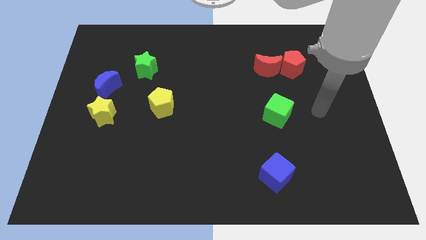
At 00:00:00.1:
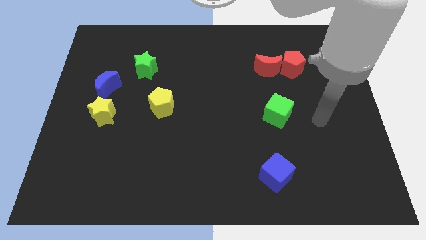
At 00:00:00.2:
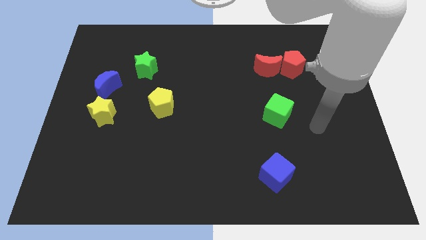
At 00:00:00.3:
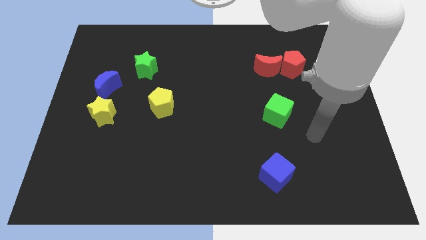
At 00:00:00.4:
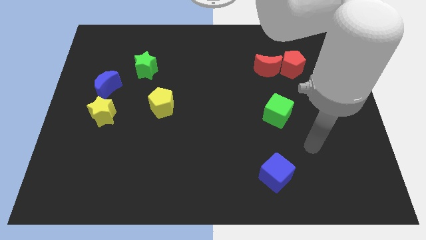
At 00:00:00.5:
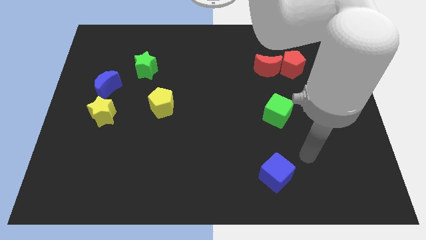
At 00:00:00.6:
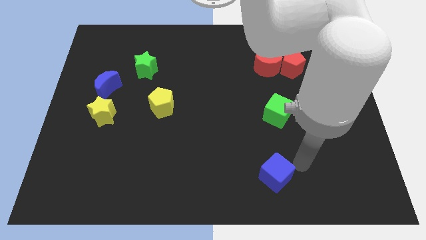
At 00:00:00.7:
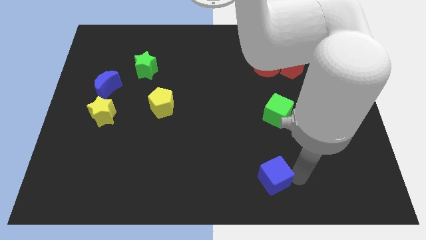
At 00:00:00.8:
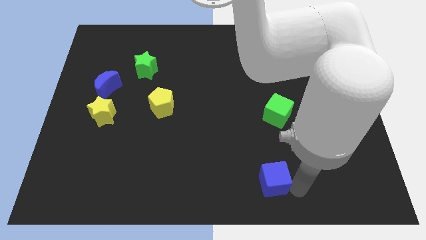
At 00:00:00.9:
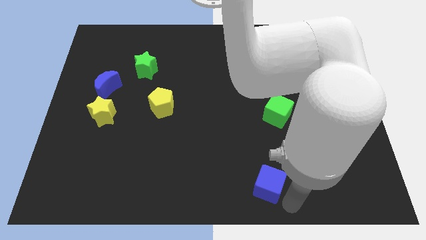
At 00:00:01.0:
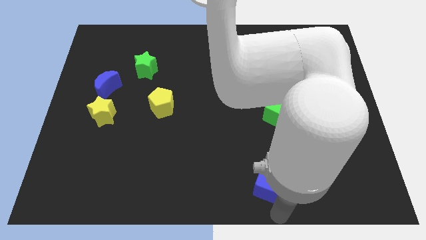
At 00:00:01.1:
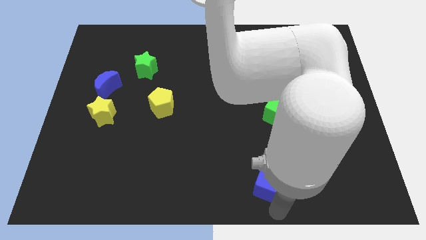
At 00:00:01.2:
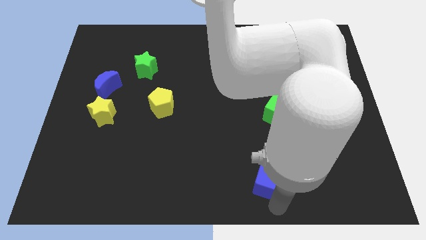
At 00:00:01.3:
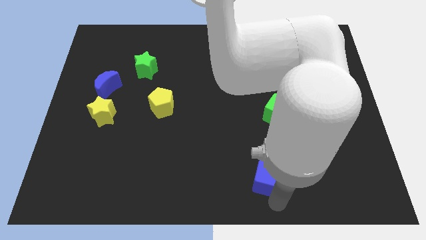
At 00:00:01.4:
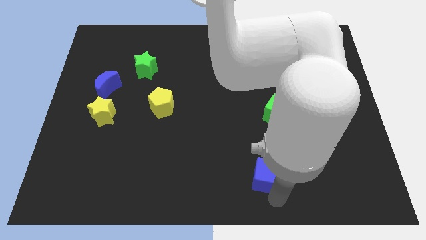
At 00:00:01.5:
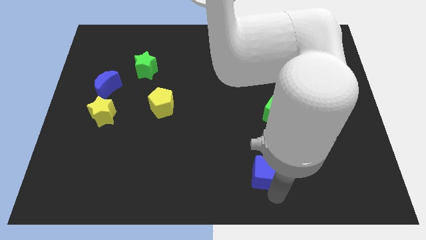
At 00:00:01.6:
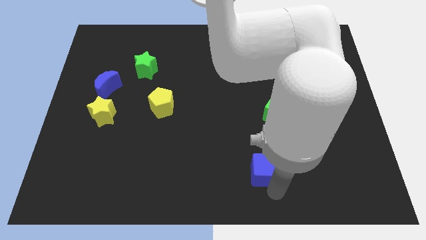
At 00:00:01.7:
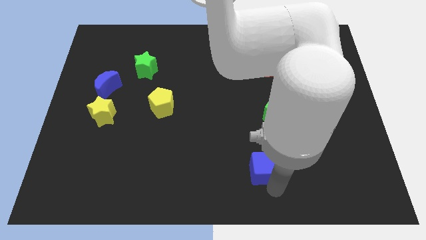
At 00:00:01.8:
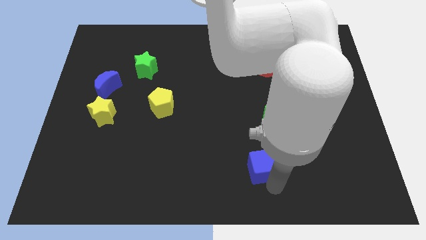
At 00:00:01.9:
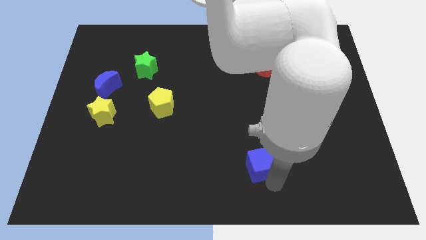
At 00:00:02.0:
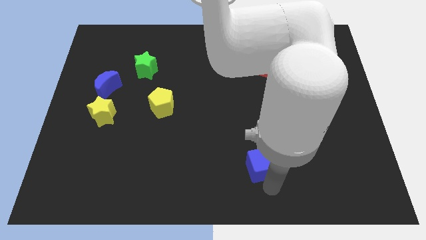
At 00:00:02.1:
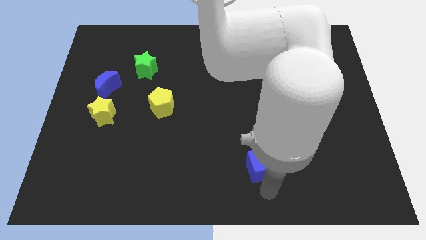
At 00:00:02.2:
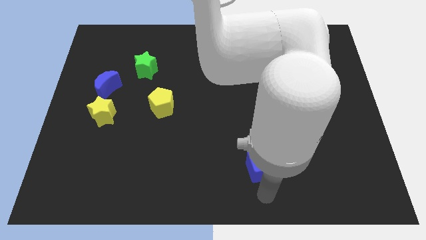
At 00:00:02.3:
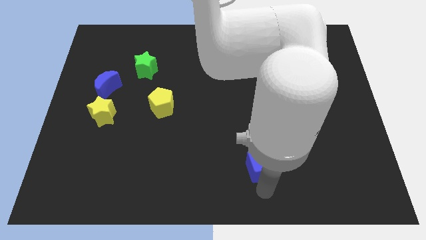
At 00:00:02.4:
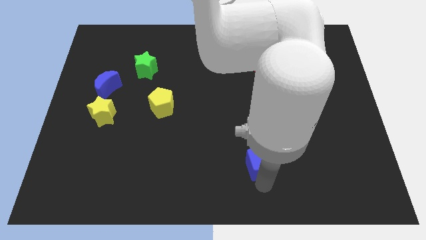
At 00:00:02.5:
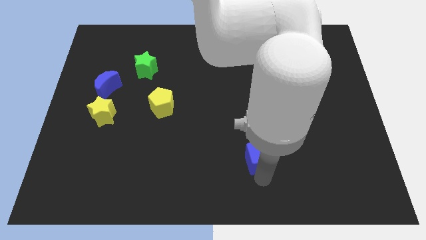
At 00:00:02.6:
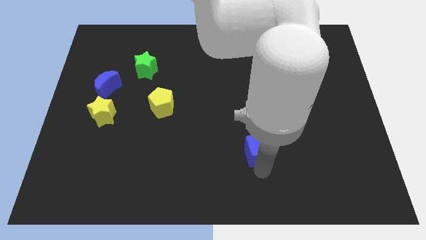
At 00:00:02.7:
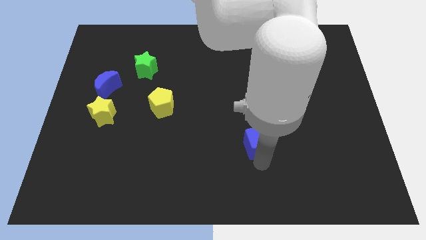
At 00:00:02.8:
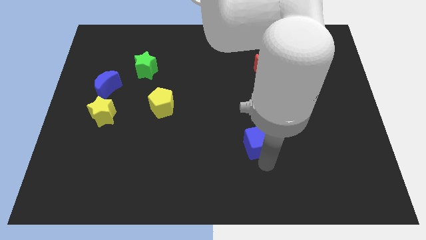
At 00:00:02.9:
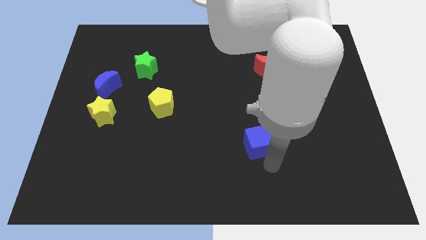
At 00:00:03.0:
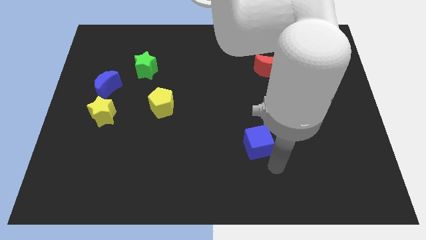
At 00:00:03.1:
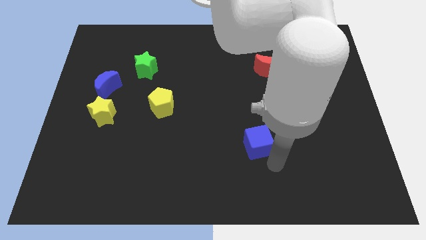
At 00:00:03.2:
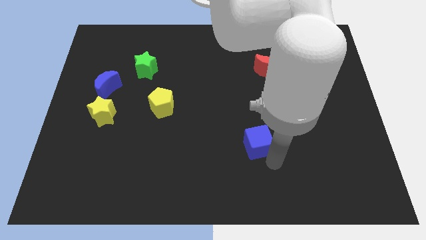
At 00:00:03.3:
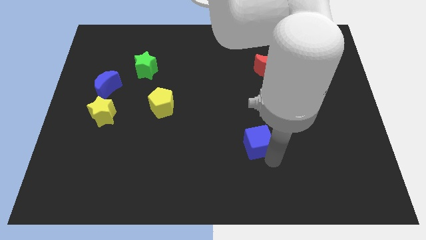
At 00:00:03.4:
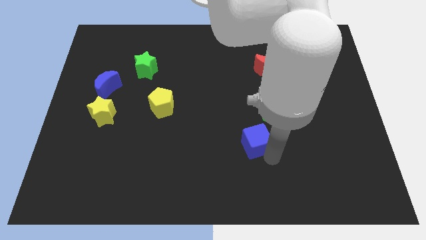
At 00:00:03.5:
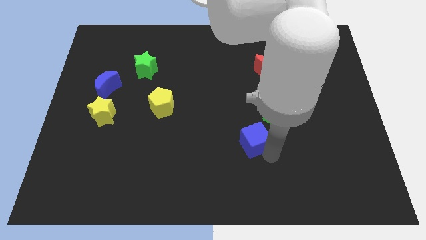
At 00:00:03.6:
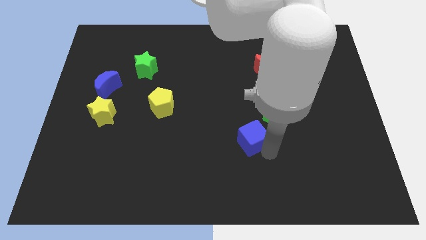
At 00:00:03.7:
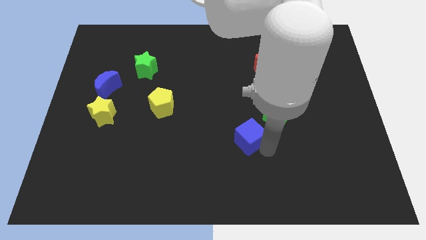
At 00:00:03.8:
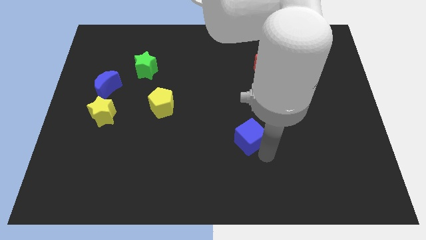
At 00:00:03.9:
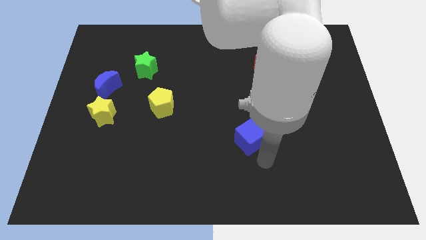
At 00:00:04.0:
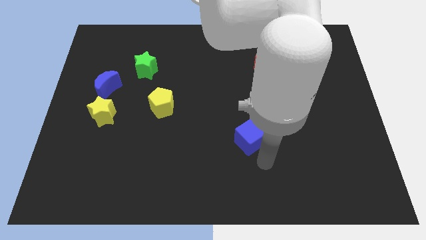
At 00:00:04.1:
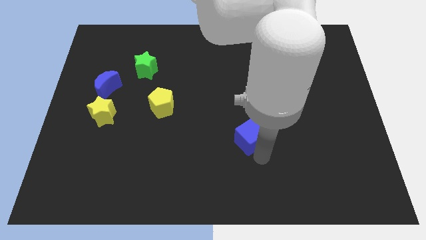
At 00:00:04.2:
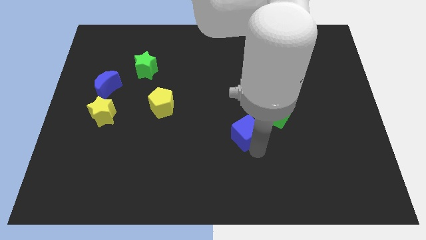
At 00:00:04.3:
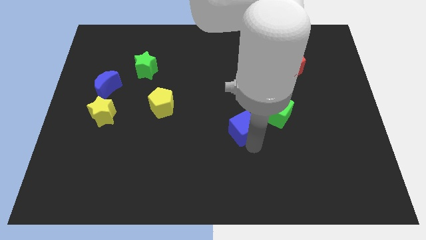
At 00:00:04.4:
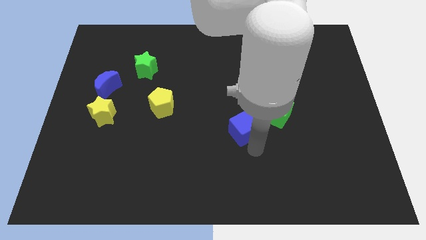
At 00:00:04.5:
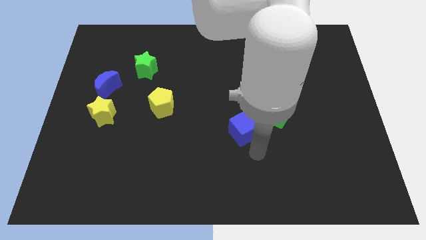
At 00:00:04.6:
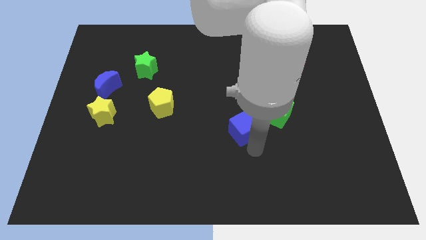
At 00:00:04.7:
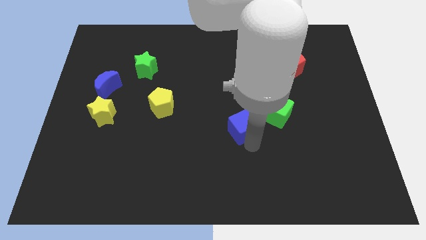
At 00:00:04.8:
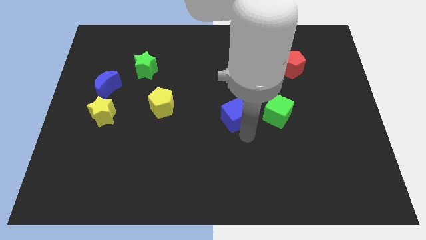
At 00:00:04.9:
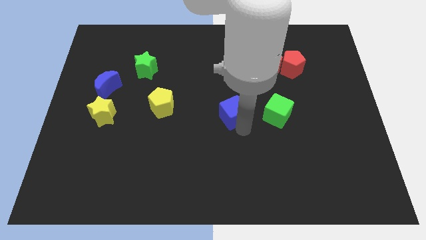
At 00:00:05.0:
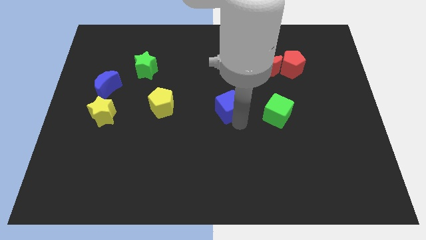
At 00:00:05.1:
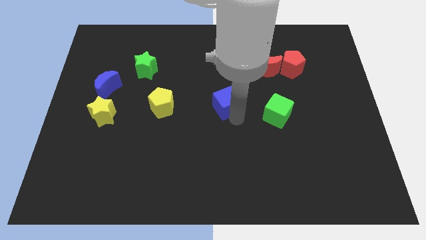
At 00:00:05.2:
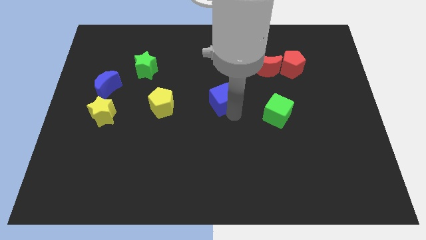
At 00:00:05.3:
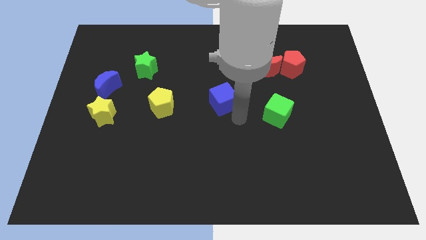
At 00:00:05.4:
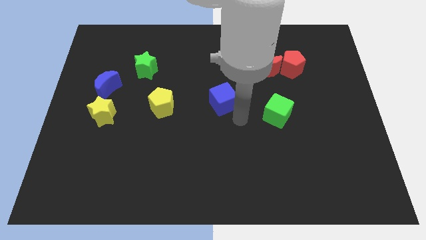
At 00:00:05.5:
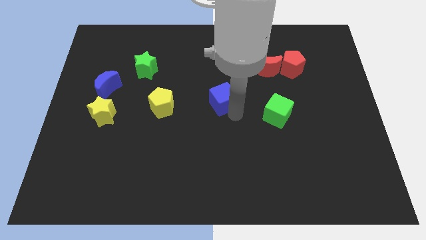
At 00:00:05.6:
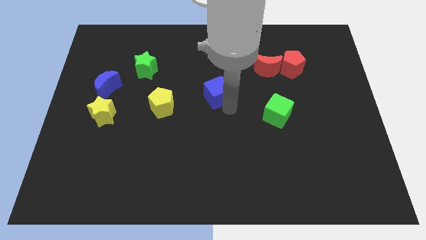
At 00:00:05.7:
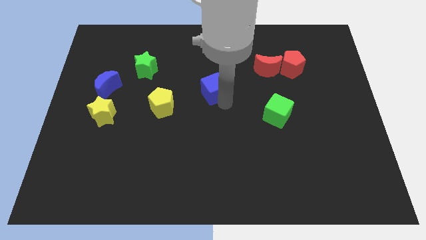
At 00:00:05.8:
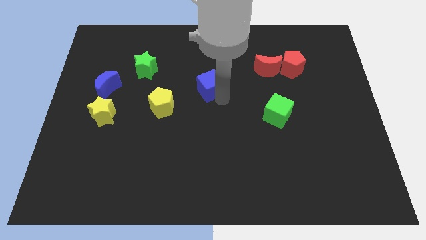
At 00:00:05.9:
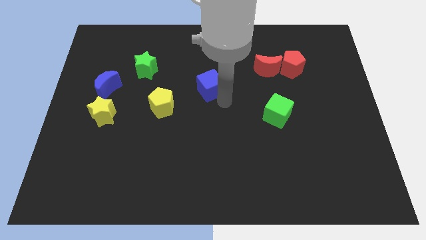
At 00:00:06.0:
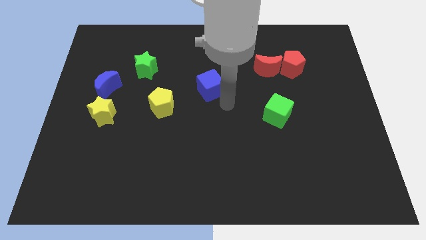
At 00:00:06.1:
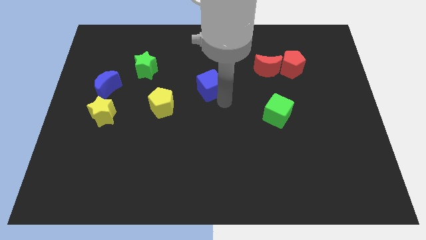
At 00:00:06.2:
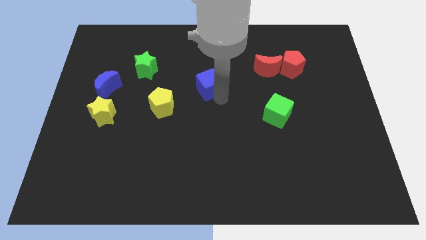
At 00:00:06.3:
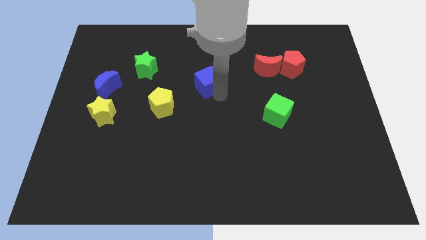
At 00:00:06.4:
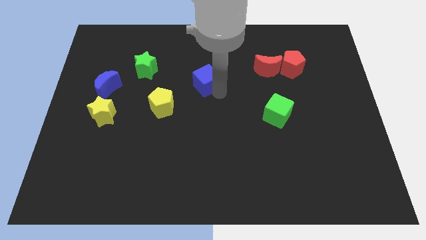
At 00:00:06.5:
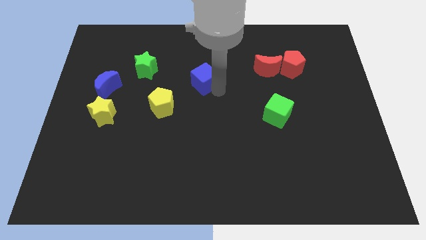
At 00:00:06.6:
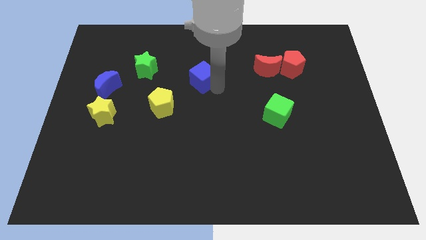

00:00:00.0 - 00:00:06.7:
put the blue cube right of the green star
